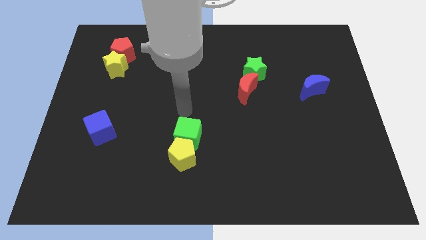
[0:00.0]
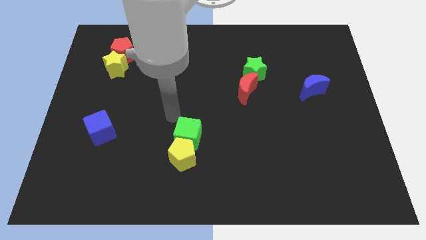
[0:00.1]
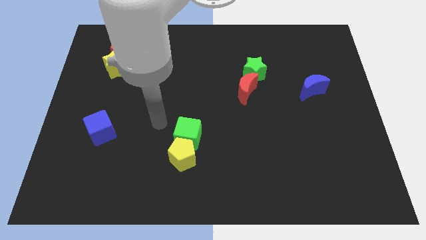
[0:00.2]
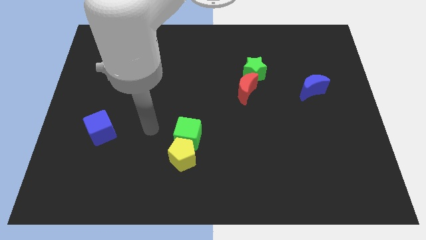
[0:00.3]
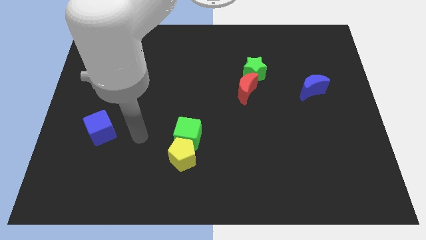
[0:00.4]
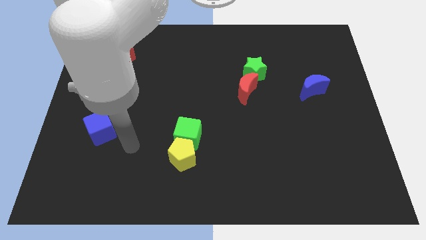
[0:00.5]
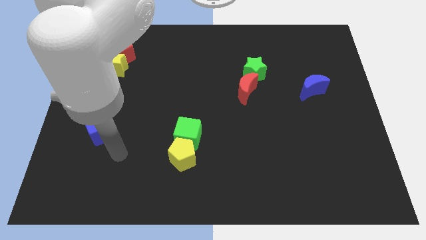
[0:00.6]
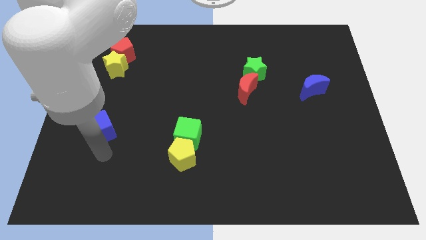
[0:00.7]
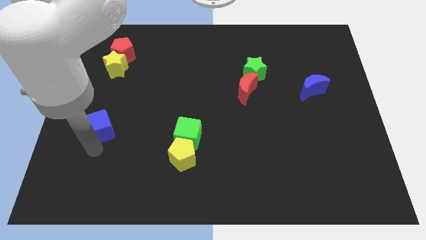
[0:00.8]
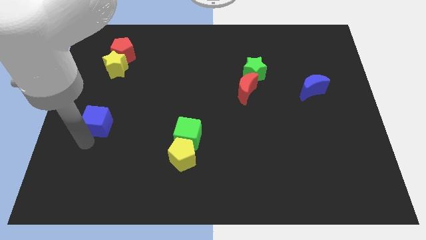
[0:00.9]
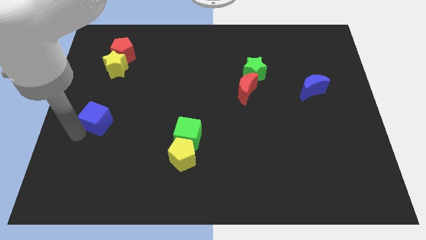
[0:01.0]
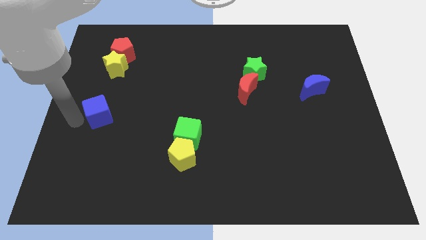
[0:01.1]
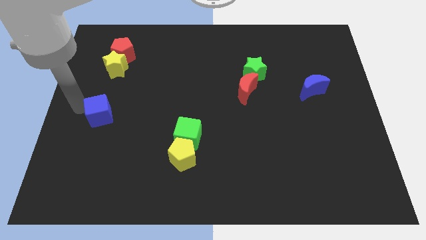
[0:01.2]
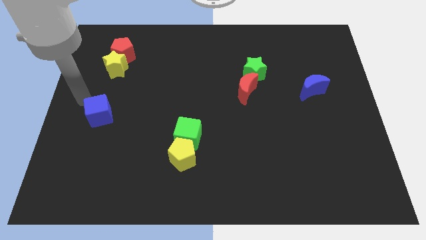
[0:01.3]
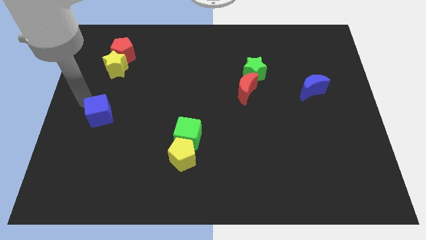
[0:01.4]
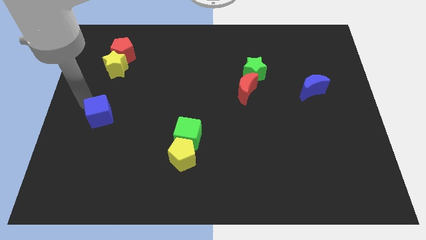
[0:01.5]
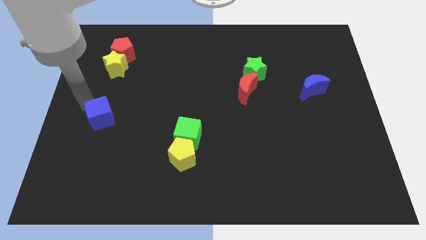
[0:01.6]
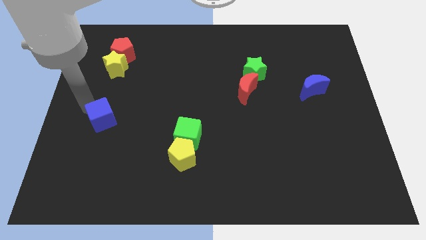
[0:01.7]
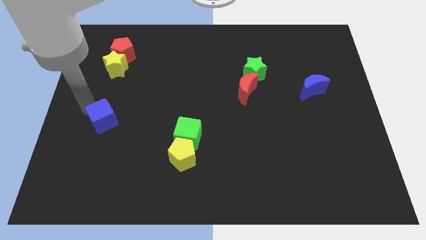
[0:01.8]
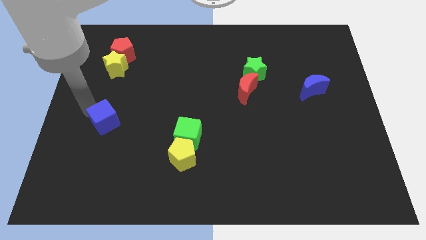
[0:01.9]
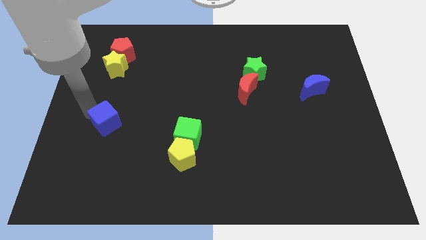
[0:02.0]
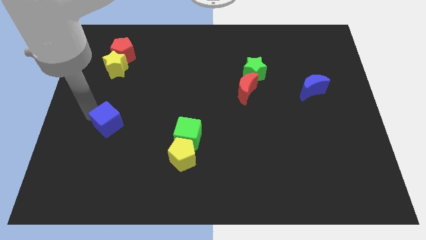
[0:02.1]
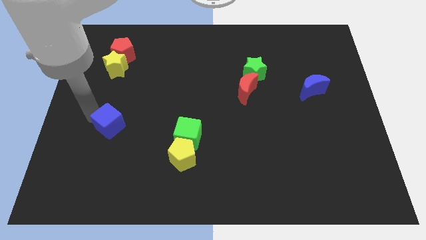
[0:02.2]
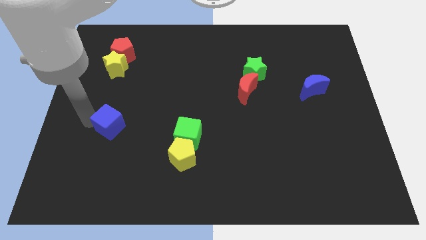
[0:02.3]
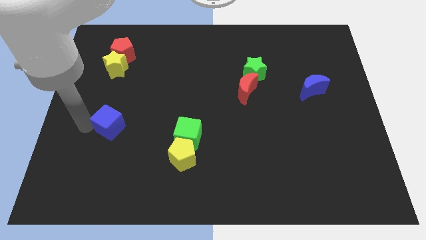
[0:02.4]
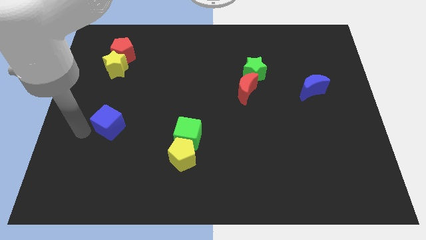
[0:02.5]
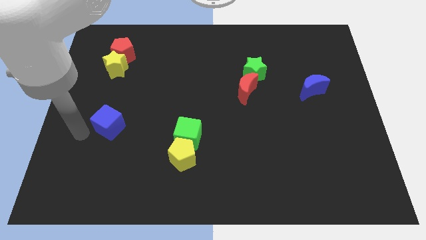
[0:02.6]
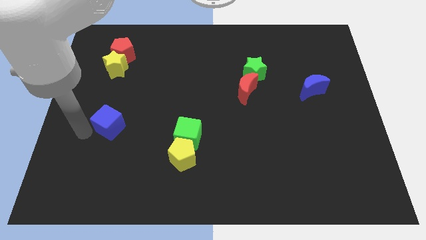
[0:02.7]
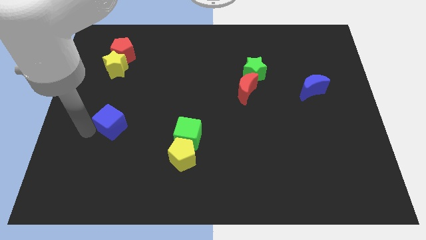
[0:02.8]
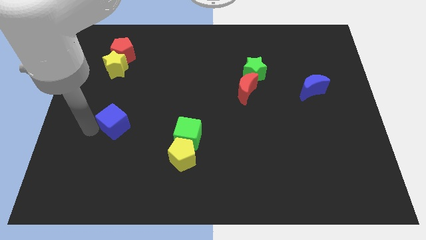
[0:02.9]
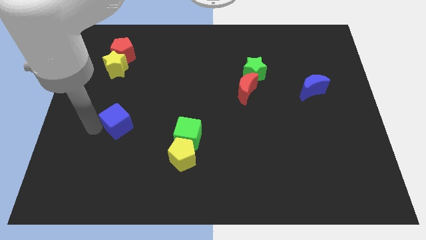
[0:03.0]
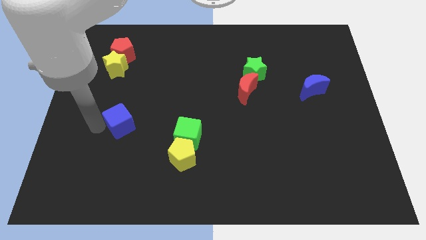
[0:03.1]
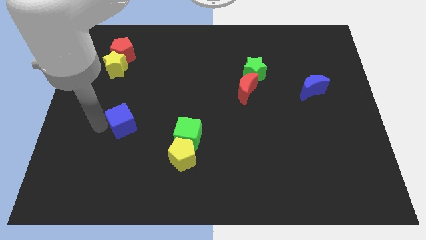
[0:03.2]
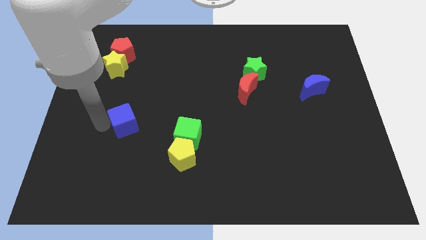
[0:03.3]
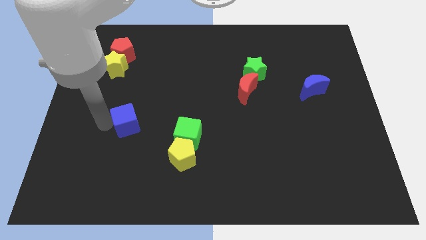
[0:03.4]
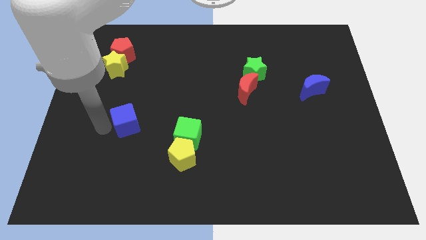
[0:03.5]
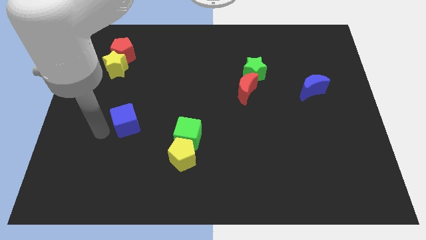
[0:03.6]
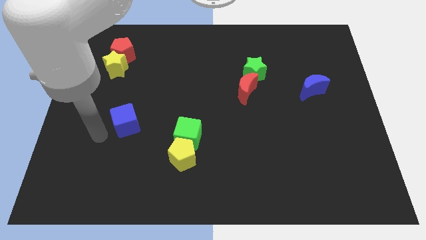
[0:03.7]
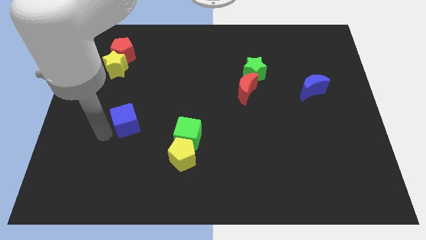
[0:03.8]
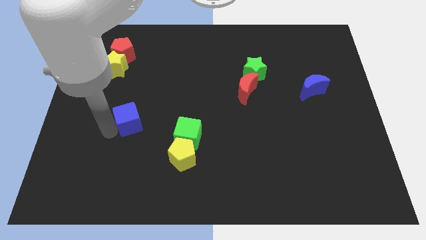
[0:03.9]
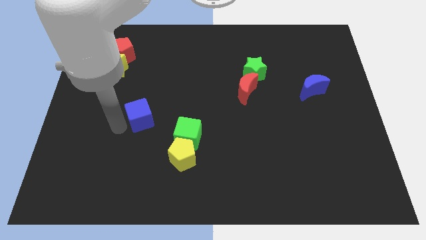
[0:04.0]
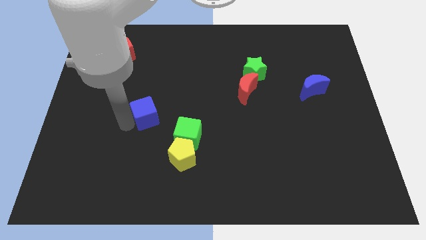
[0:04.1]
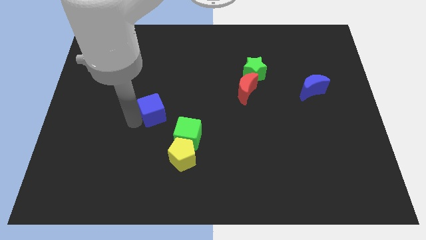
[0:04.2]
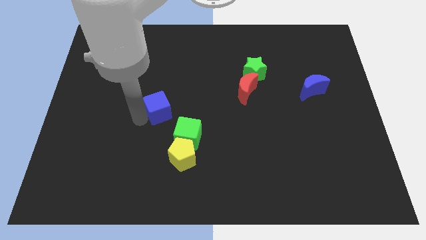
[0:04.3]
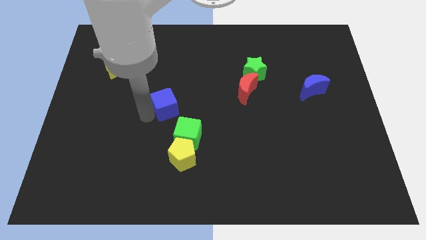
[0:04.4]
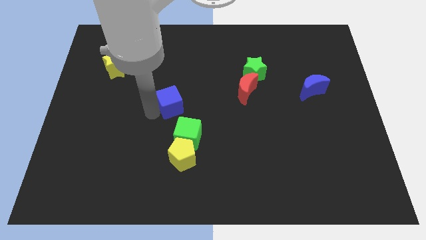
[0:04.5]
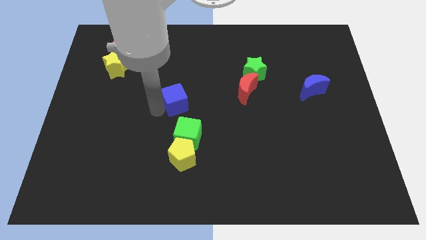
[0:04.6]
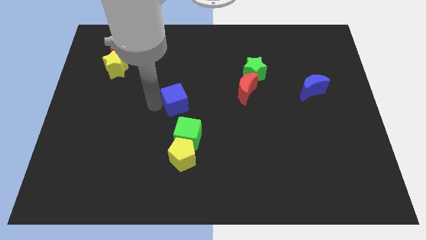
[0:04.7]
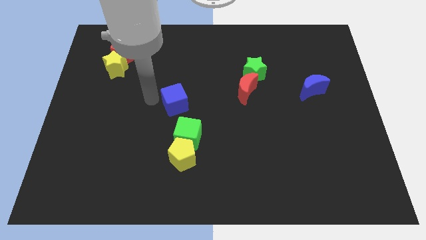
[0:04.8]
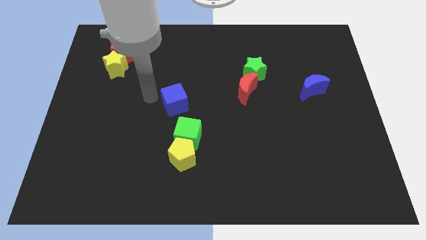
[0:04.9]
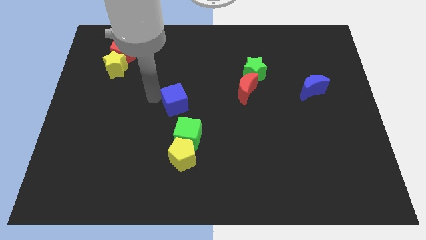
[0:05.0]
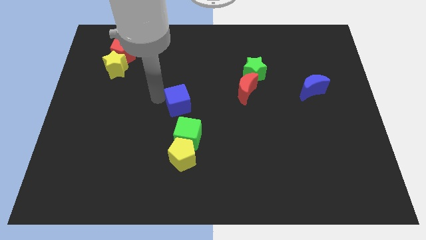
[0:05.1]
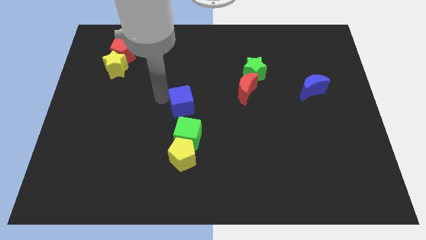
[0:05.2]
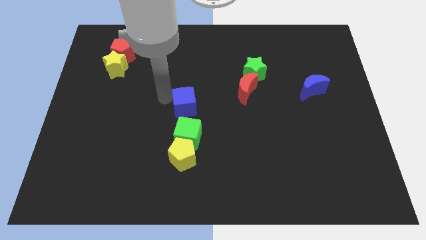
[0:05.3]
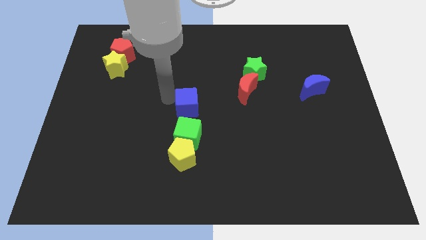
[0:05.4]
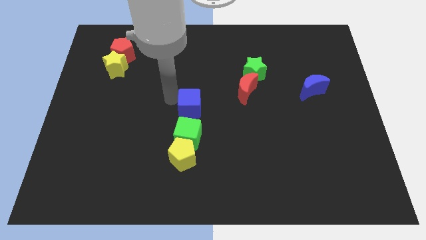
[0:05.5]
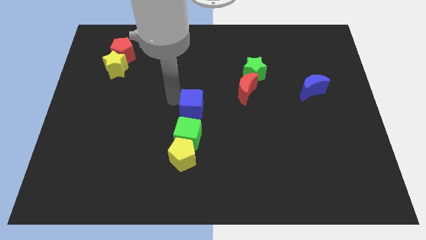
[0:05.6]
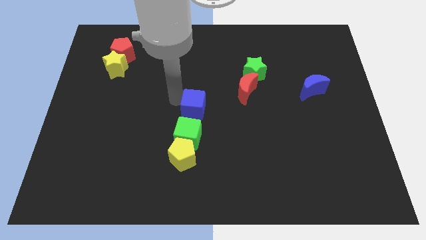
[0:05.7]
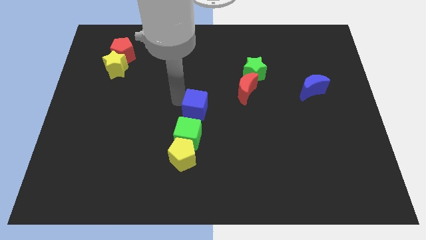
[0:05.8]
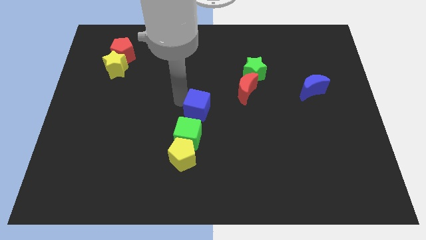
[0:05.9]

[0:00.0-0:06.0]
push the blue cube to the right

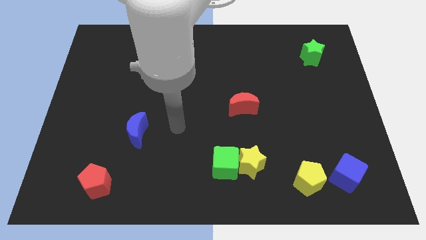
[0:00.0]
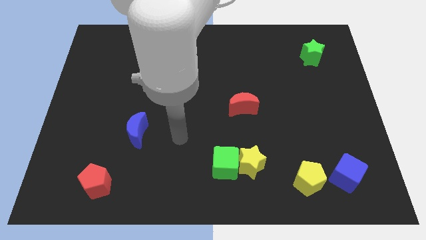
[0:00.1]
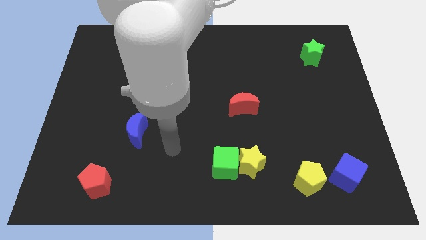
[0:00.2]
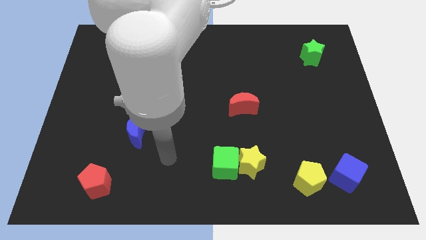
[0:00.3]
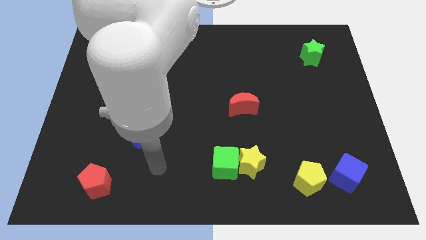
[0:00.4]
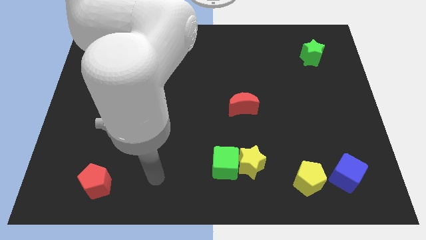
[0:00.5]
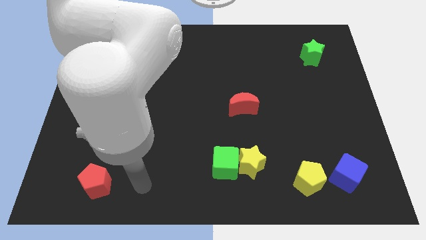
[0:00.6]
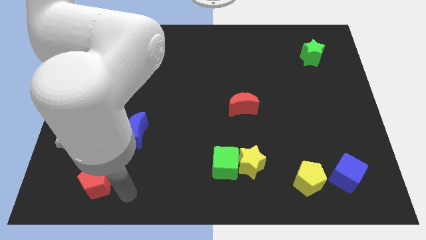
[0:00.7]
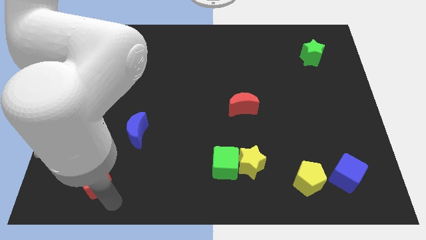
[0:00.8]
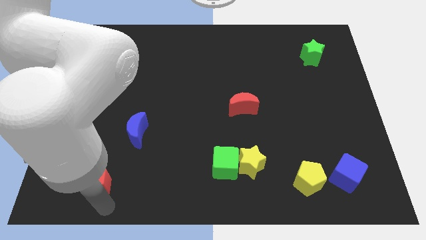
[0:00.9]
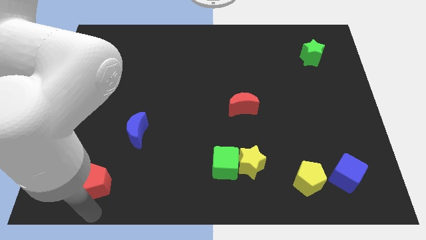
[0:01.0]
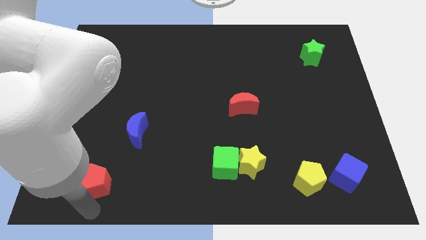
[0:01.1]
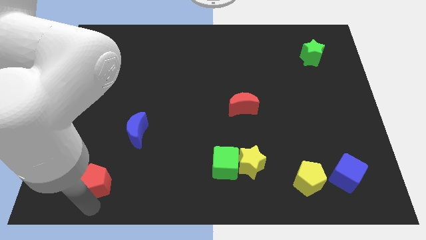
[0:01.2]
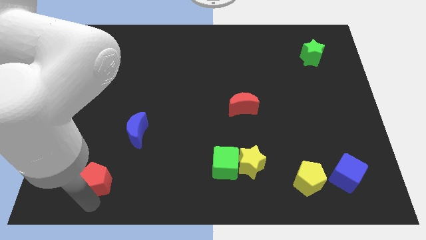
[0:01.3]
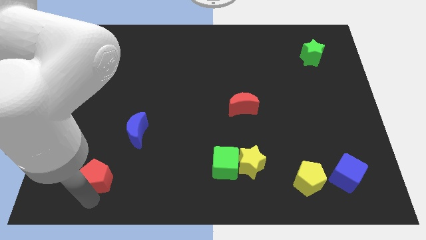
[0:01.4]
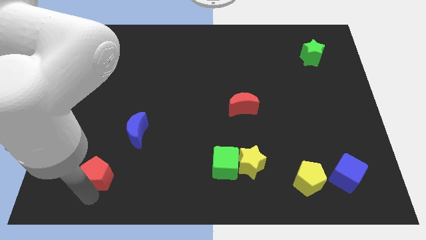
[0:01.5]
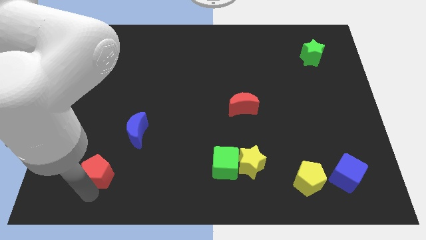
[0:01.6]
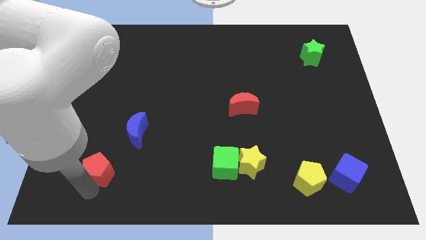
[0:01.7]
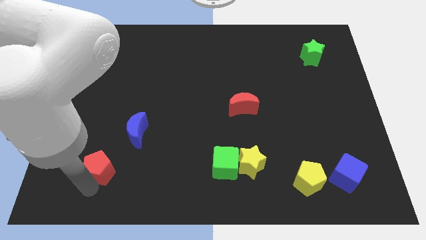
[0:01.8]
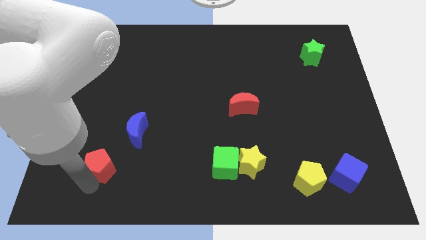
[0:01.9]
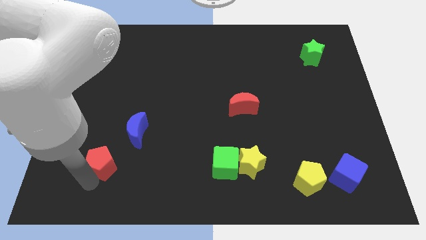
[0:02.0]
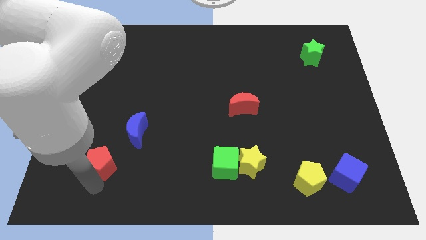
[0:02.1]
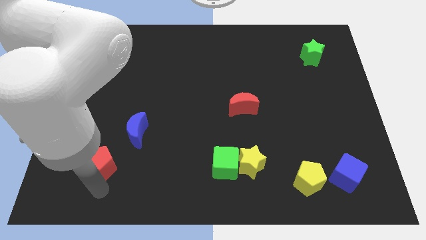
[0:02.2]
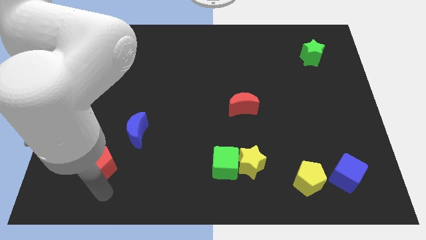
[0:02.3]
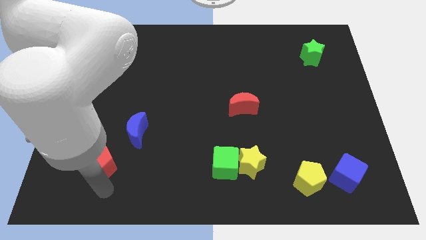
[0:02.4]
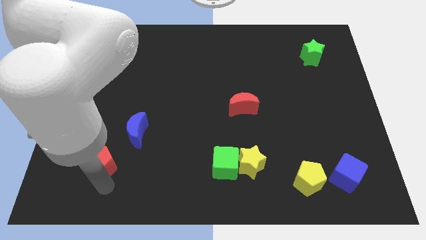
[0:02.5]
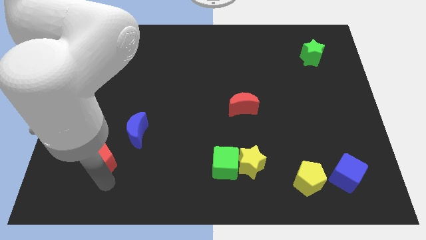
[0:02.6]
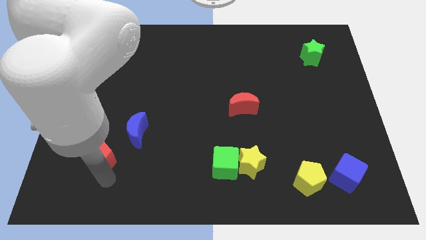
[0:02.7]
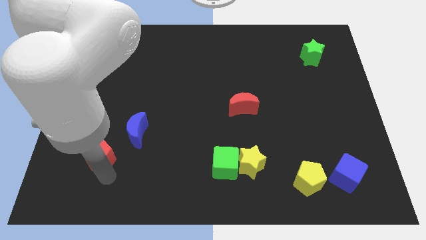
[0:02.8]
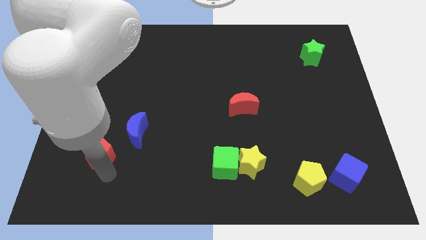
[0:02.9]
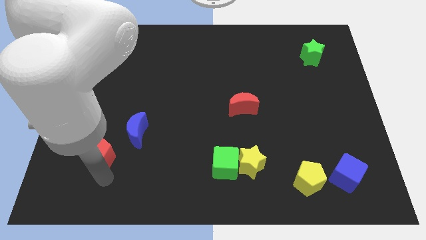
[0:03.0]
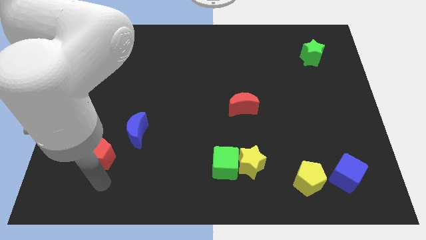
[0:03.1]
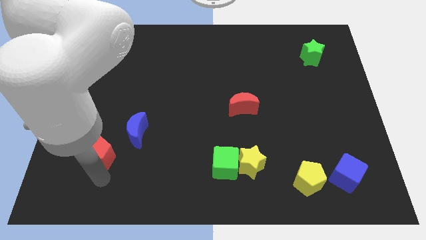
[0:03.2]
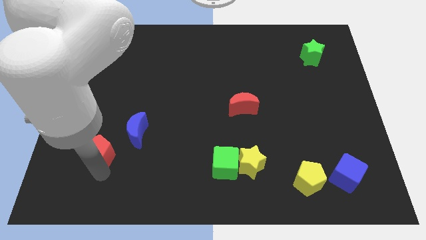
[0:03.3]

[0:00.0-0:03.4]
move the red pentagon up a bit
